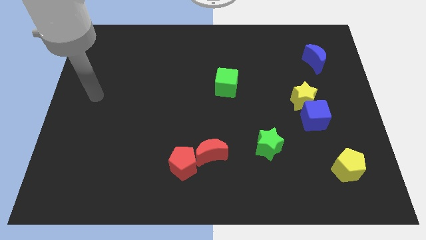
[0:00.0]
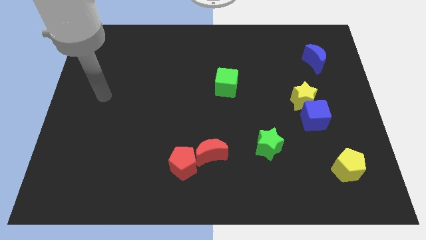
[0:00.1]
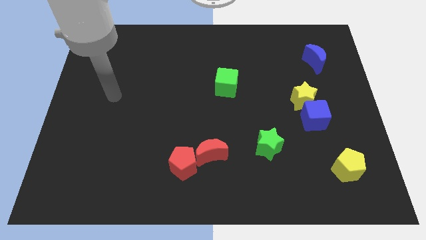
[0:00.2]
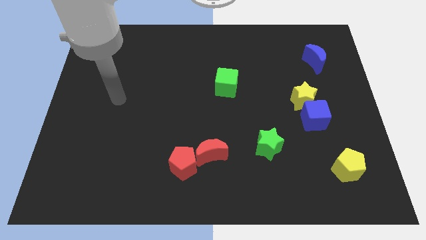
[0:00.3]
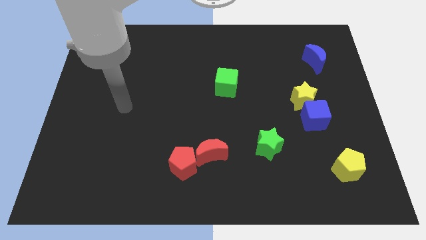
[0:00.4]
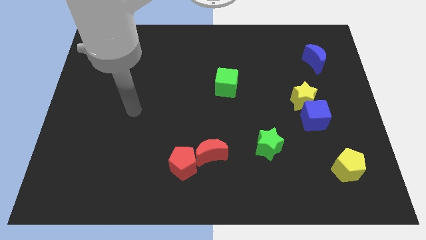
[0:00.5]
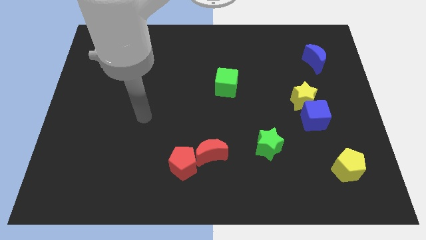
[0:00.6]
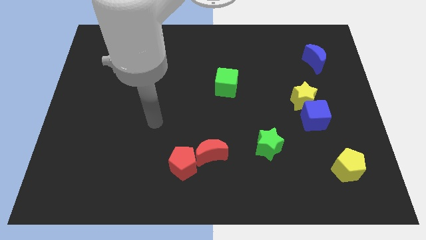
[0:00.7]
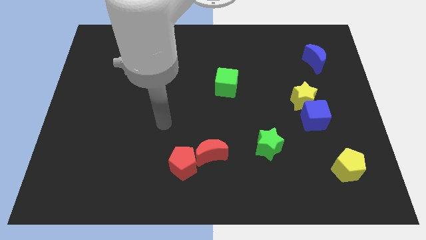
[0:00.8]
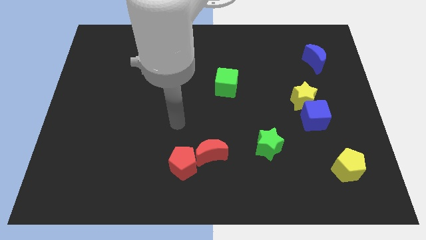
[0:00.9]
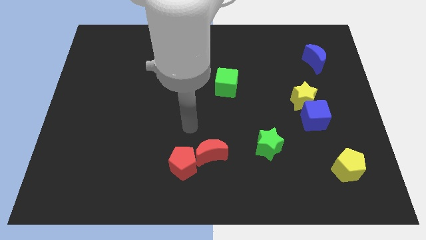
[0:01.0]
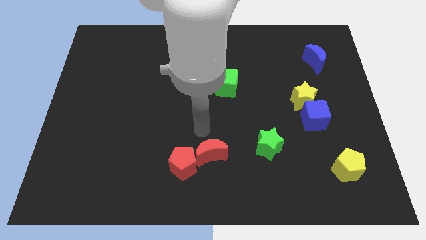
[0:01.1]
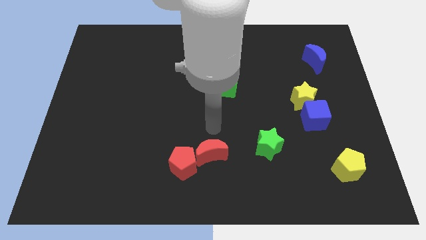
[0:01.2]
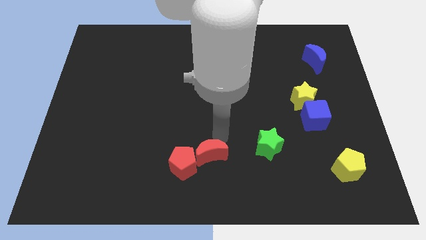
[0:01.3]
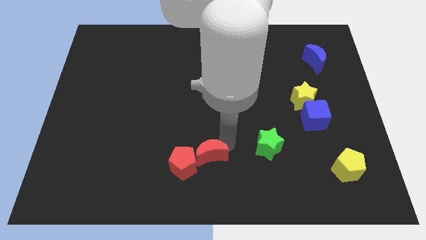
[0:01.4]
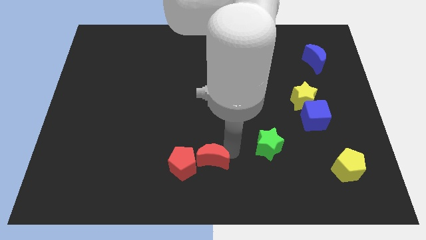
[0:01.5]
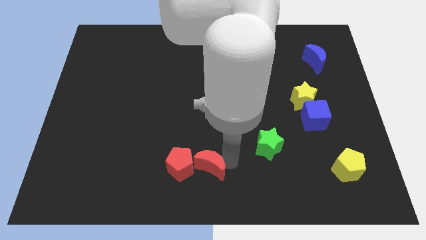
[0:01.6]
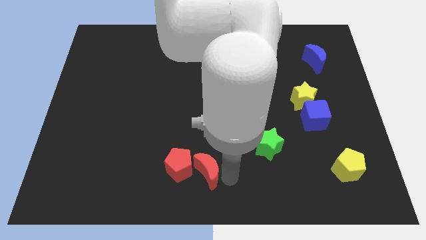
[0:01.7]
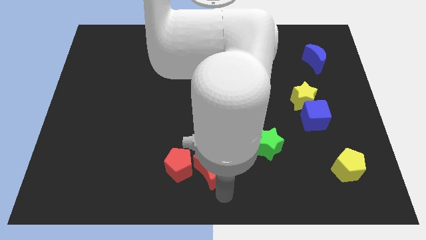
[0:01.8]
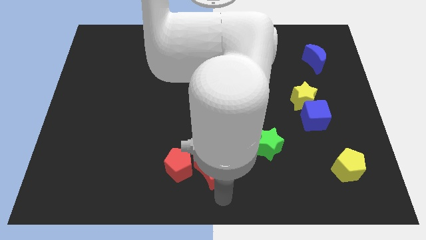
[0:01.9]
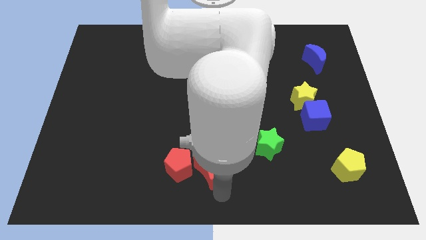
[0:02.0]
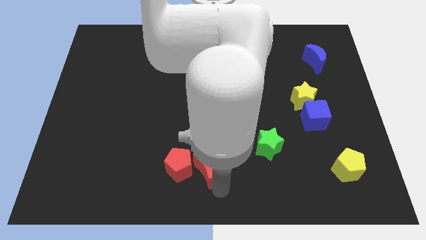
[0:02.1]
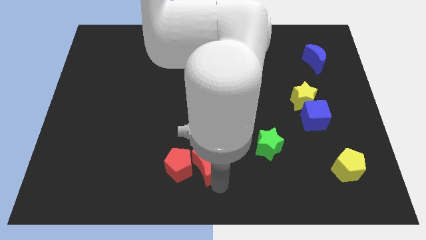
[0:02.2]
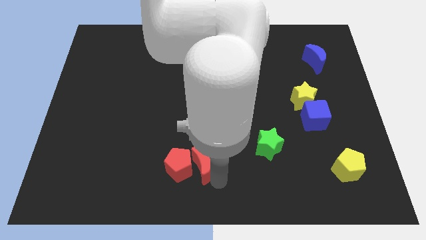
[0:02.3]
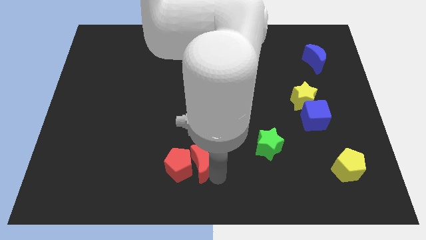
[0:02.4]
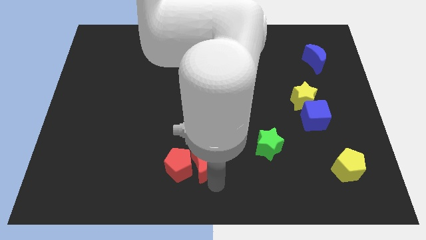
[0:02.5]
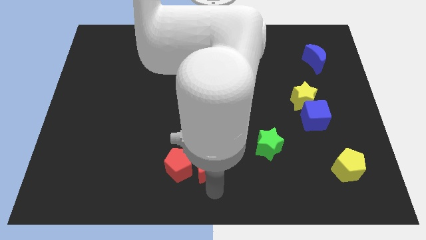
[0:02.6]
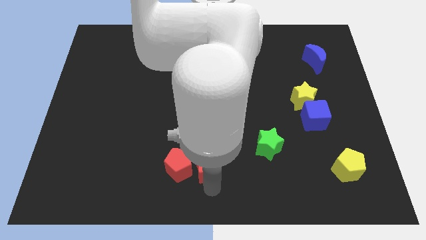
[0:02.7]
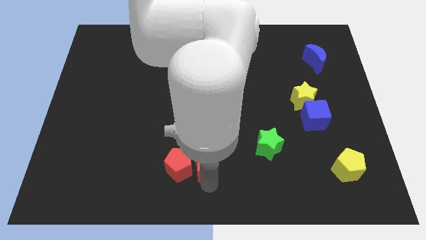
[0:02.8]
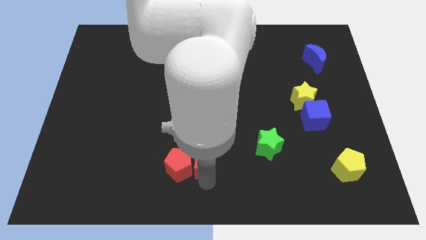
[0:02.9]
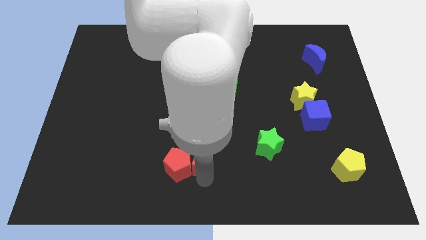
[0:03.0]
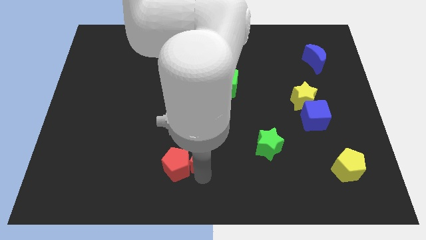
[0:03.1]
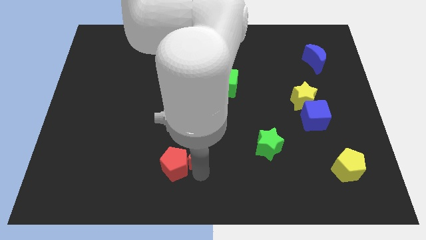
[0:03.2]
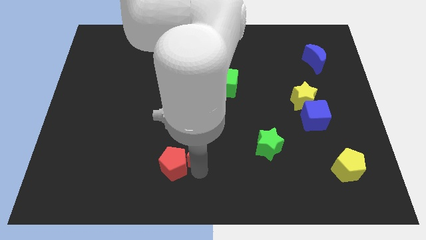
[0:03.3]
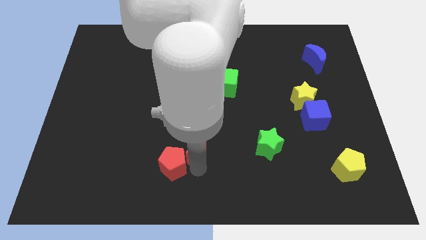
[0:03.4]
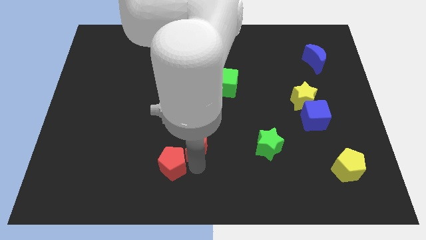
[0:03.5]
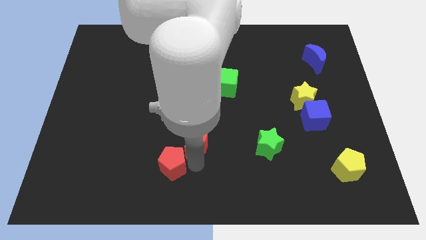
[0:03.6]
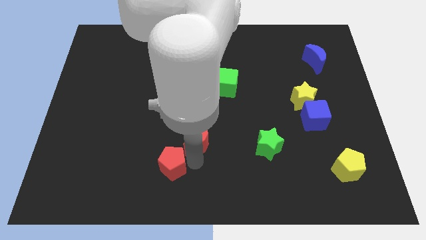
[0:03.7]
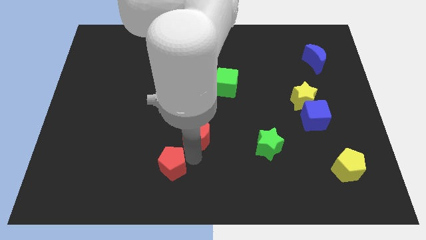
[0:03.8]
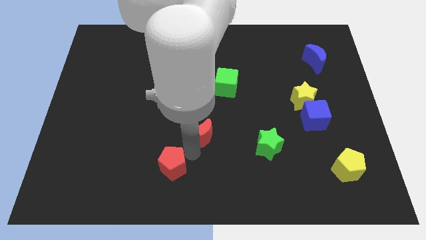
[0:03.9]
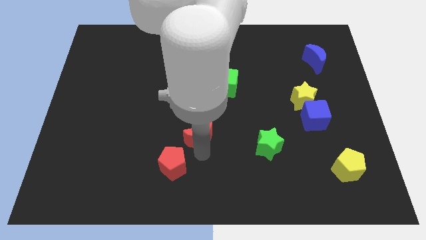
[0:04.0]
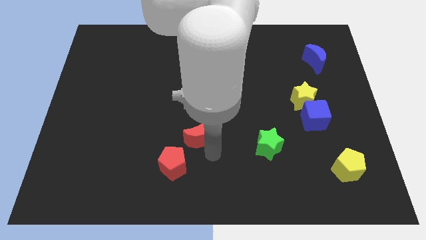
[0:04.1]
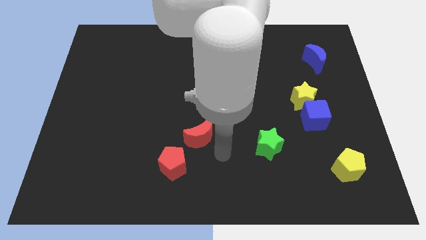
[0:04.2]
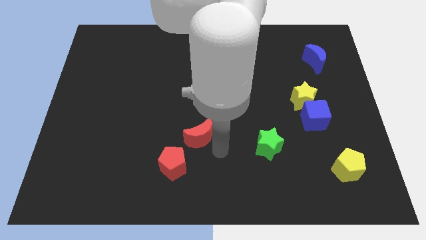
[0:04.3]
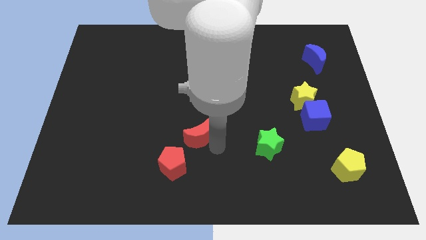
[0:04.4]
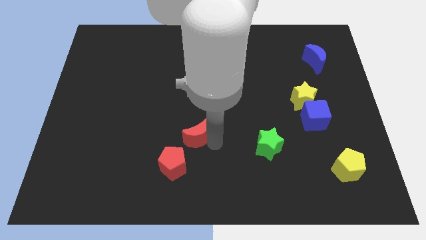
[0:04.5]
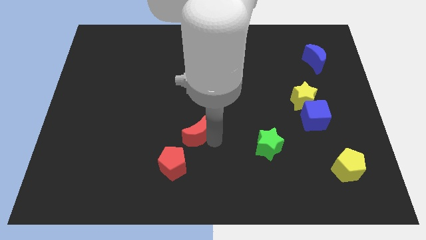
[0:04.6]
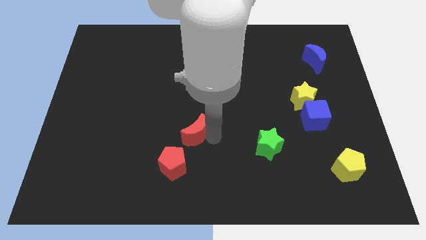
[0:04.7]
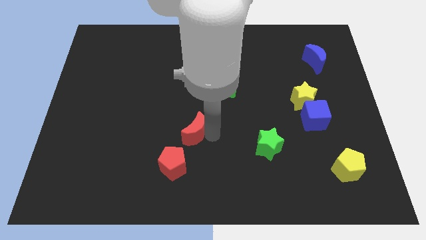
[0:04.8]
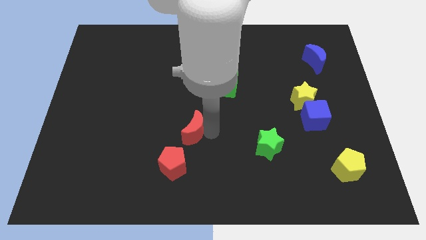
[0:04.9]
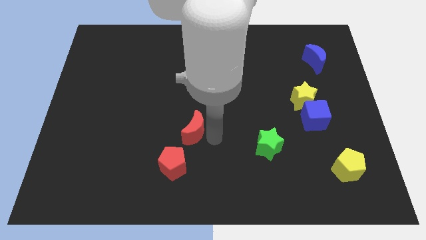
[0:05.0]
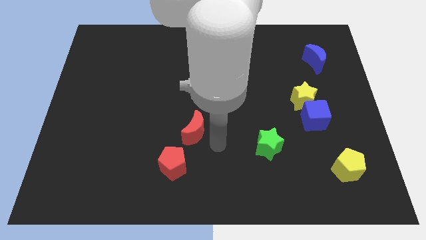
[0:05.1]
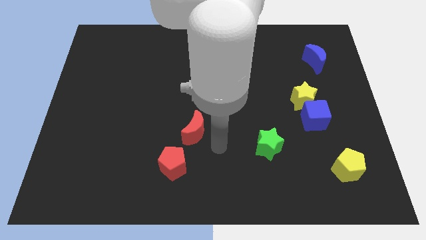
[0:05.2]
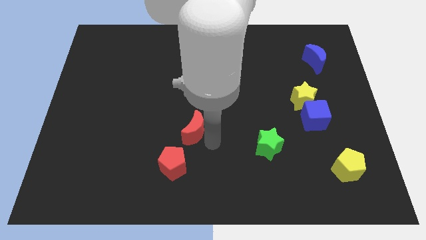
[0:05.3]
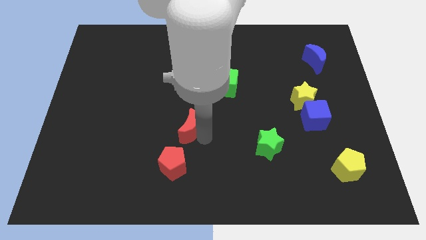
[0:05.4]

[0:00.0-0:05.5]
slide the red moon up and left diagonally slightly

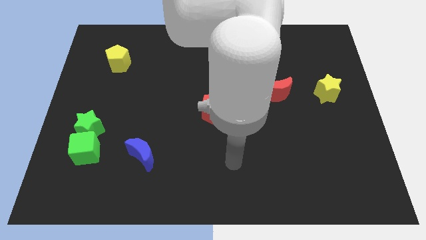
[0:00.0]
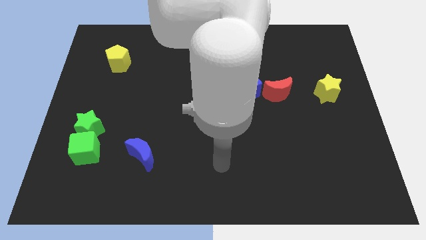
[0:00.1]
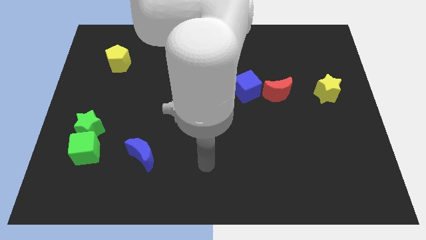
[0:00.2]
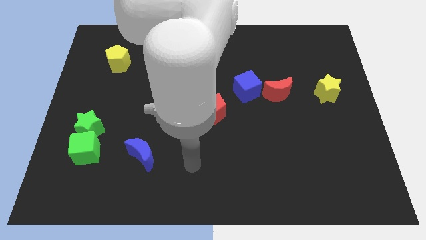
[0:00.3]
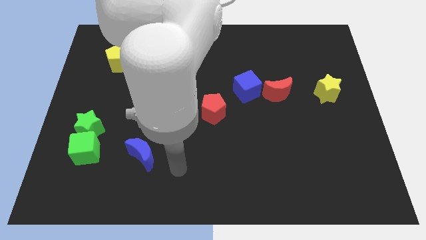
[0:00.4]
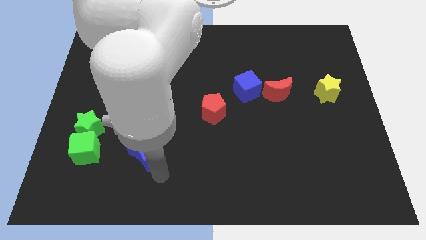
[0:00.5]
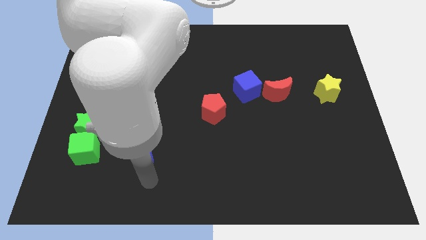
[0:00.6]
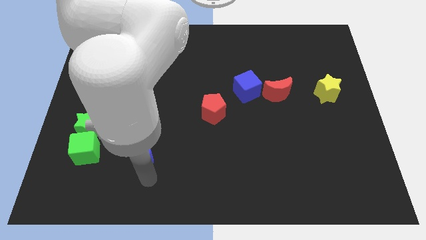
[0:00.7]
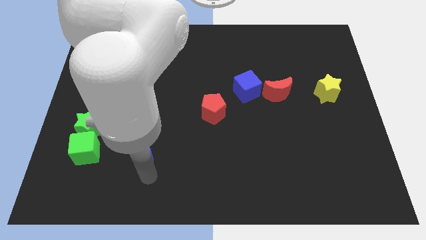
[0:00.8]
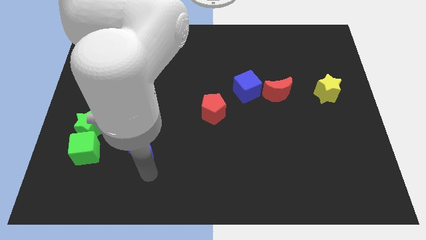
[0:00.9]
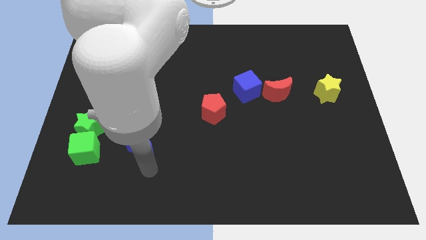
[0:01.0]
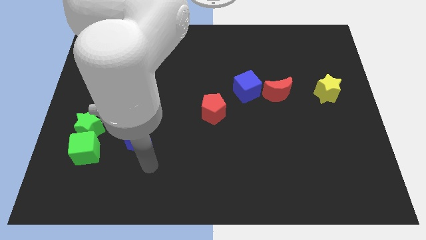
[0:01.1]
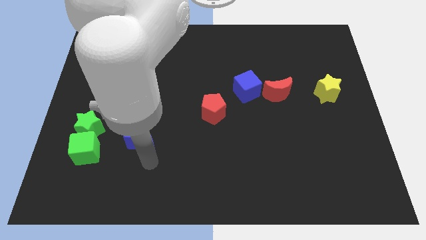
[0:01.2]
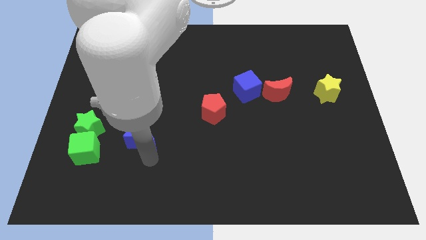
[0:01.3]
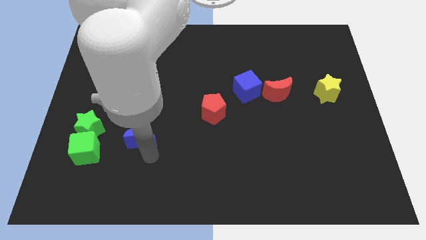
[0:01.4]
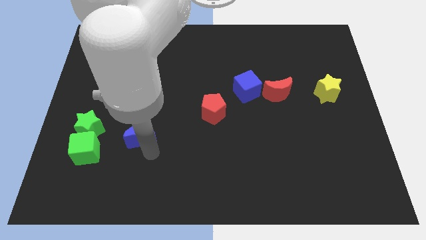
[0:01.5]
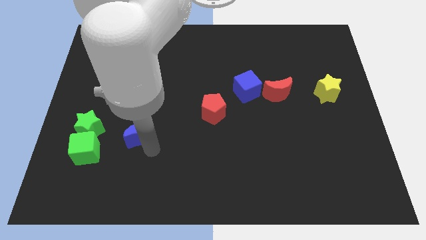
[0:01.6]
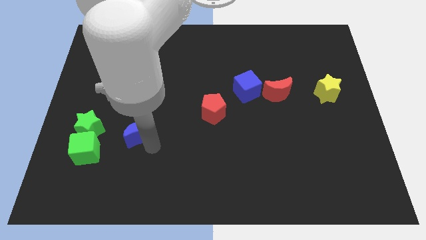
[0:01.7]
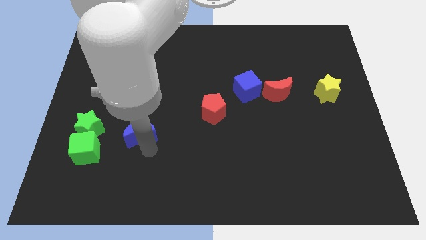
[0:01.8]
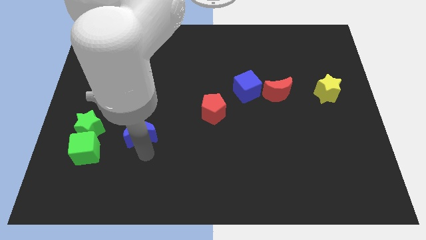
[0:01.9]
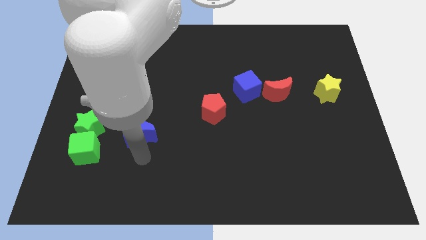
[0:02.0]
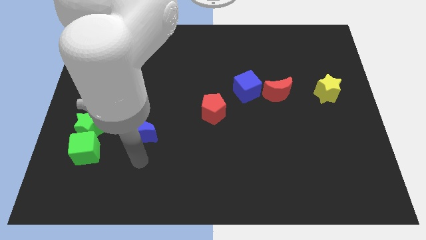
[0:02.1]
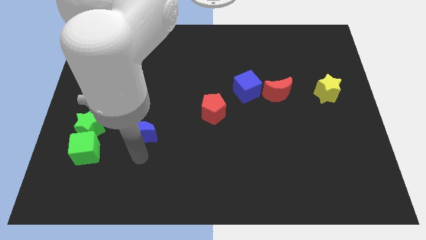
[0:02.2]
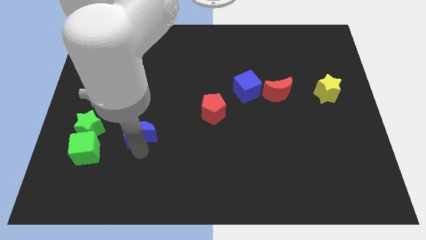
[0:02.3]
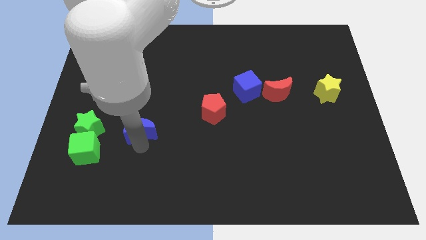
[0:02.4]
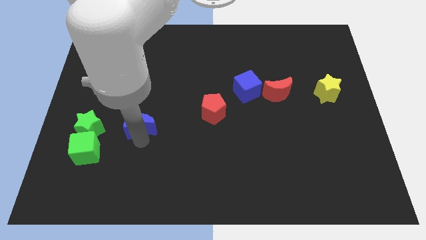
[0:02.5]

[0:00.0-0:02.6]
slightly move the blue moon upwards
